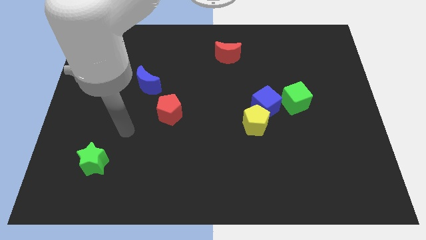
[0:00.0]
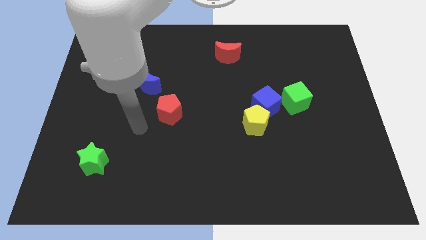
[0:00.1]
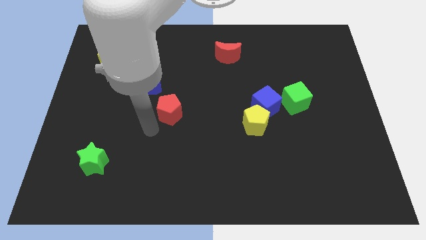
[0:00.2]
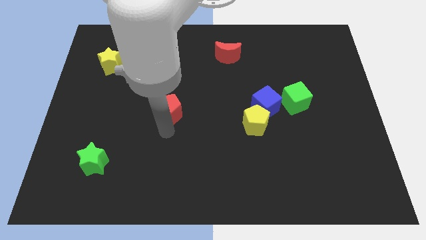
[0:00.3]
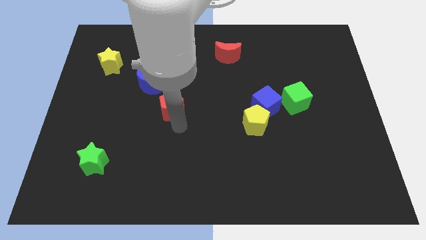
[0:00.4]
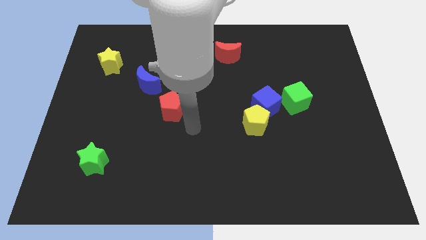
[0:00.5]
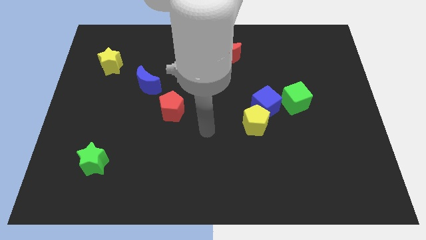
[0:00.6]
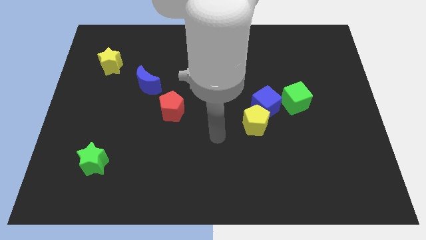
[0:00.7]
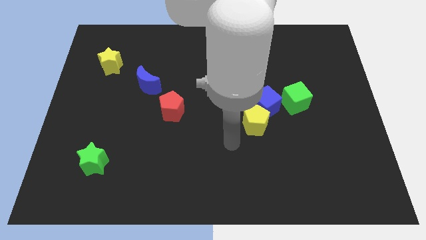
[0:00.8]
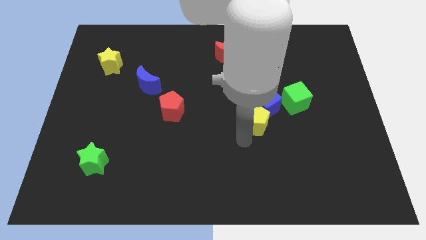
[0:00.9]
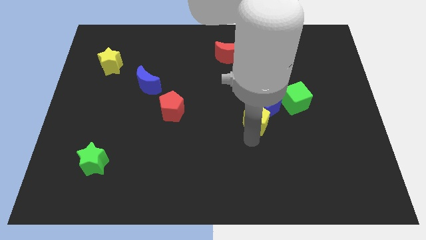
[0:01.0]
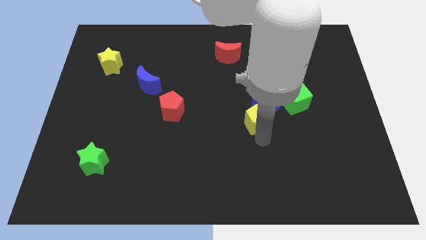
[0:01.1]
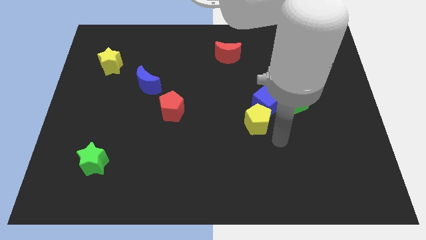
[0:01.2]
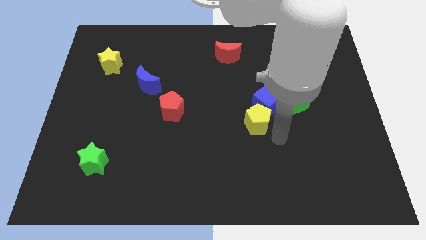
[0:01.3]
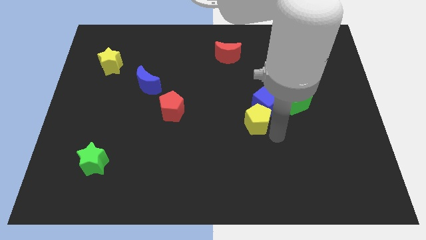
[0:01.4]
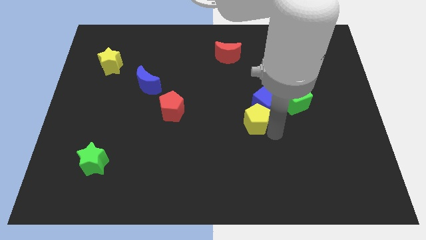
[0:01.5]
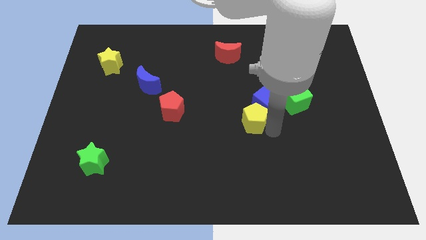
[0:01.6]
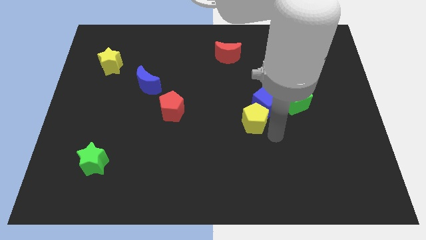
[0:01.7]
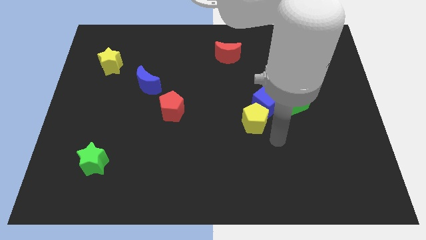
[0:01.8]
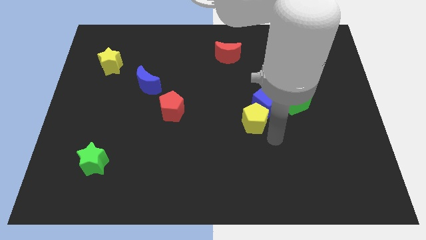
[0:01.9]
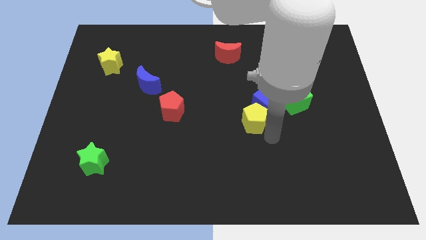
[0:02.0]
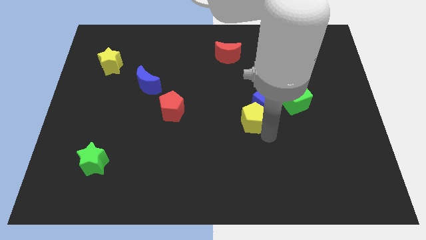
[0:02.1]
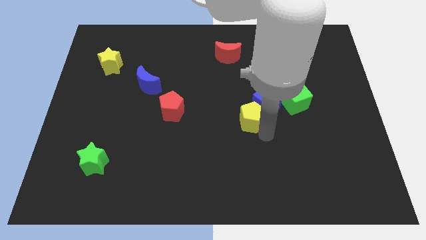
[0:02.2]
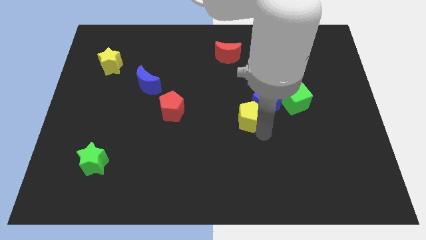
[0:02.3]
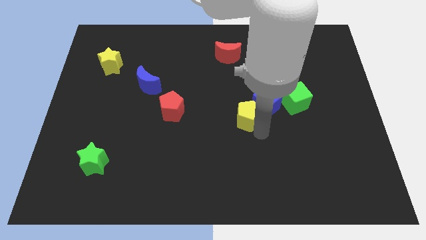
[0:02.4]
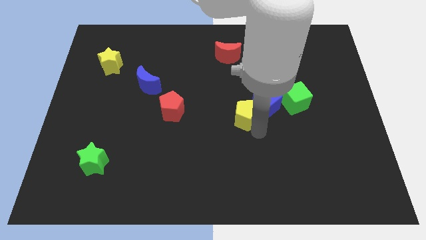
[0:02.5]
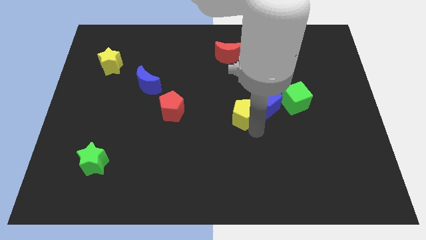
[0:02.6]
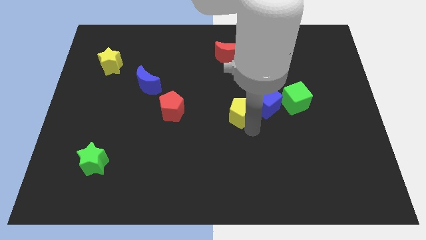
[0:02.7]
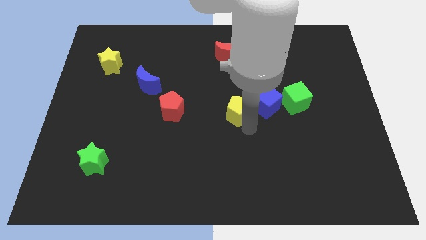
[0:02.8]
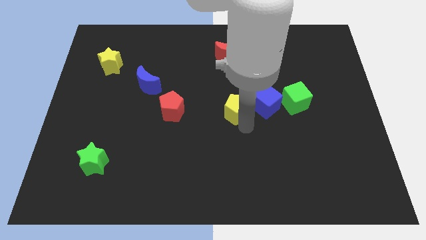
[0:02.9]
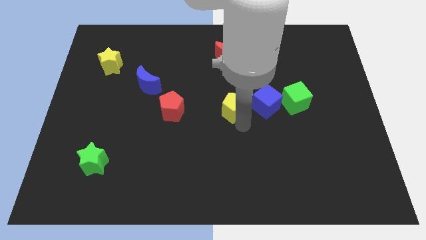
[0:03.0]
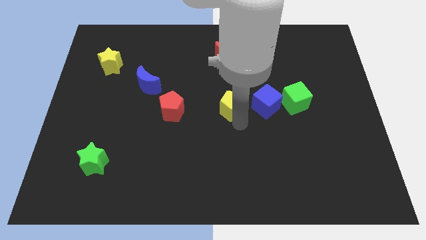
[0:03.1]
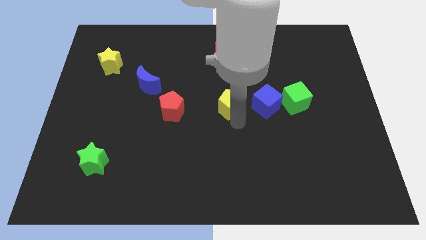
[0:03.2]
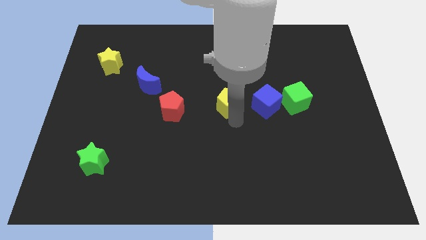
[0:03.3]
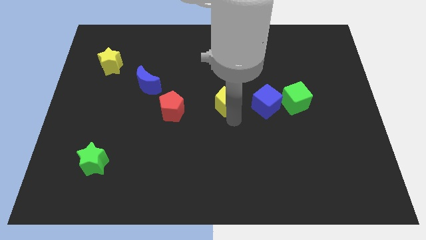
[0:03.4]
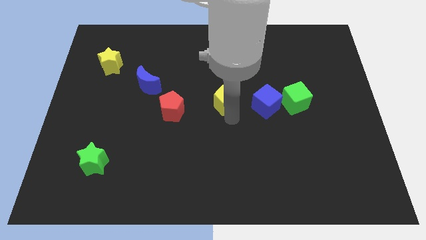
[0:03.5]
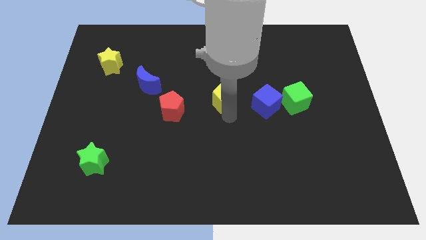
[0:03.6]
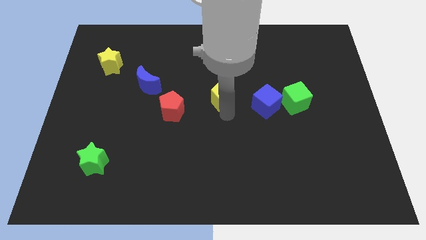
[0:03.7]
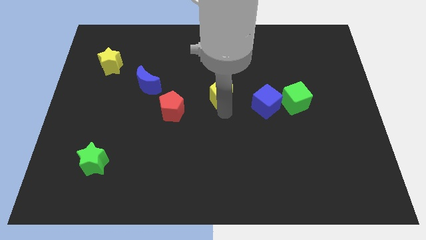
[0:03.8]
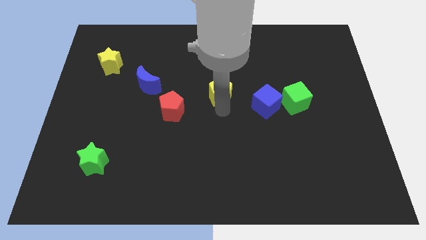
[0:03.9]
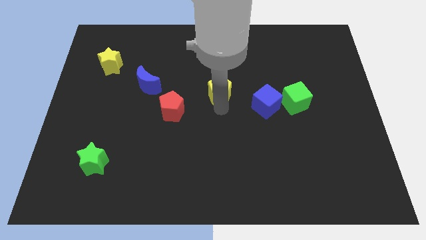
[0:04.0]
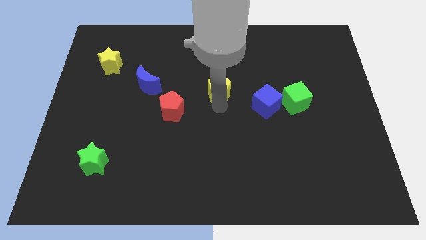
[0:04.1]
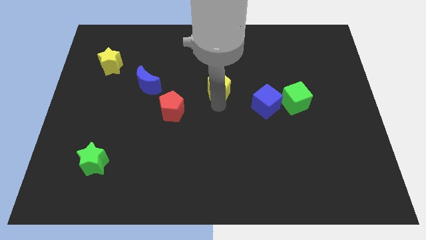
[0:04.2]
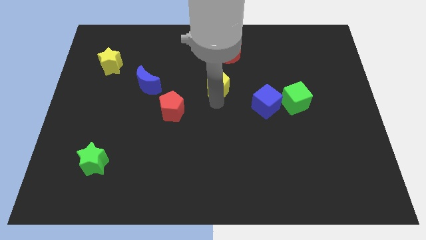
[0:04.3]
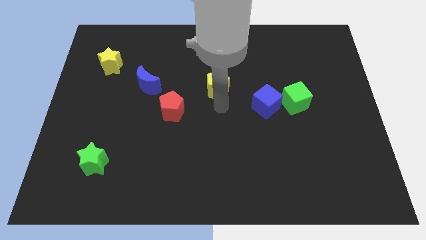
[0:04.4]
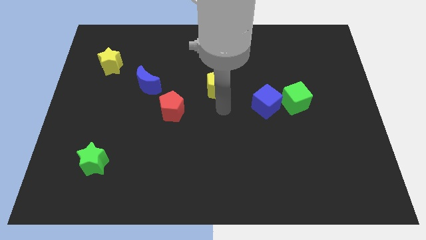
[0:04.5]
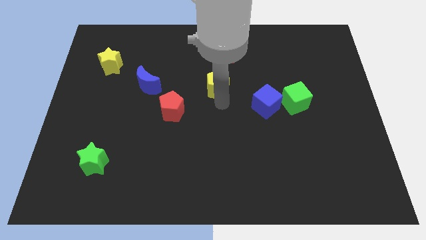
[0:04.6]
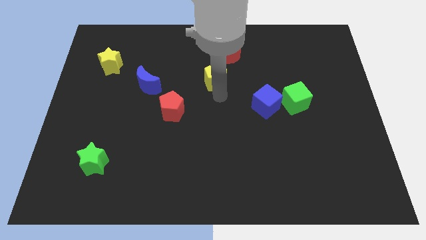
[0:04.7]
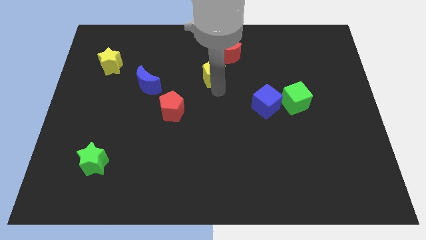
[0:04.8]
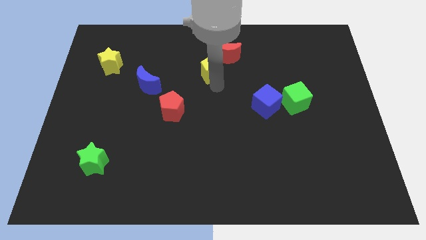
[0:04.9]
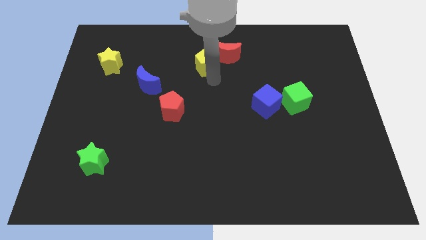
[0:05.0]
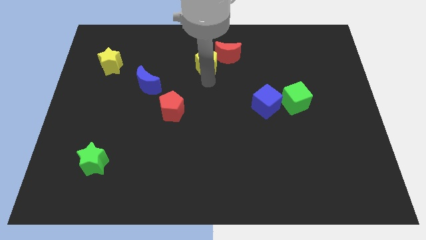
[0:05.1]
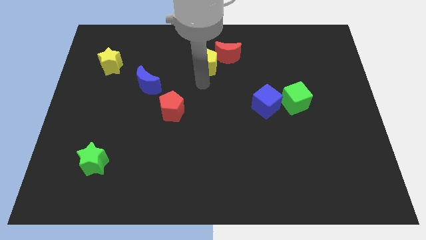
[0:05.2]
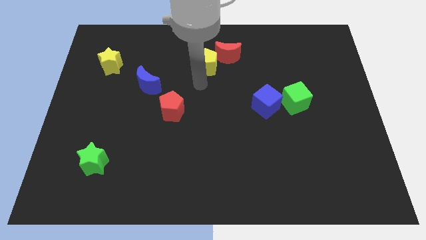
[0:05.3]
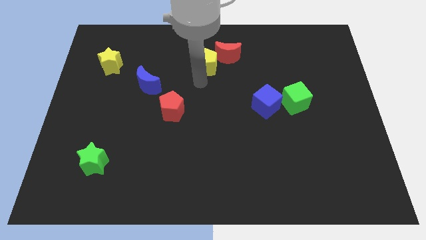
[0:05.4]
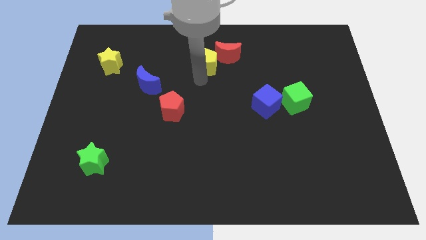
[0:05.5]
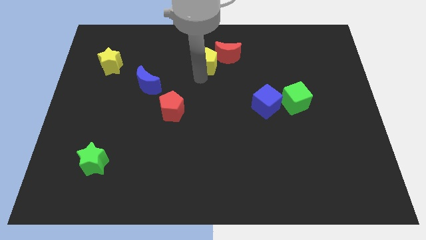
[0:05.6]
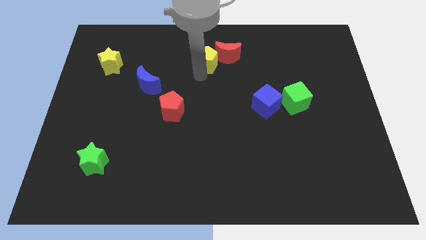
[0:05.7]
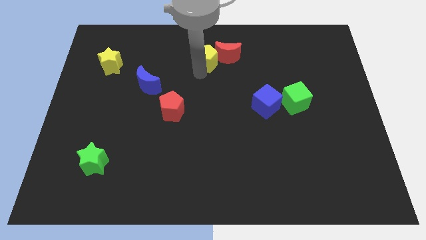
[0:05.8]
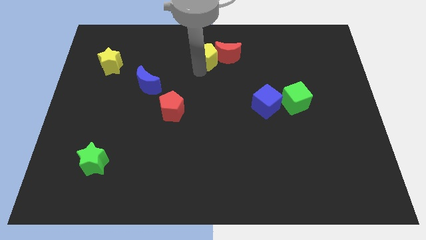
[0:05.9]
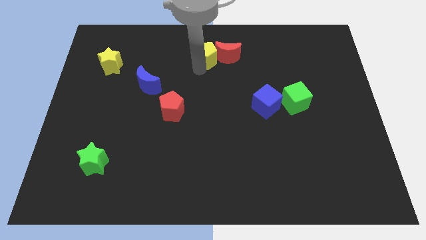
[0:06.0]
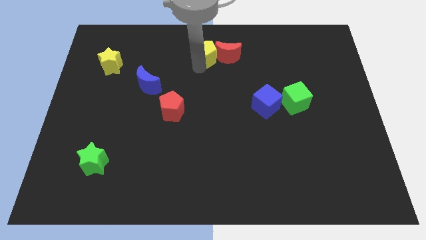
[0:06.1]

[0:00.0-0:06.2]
slide the yellow pentagon to the towards your base
